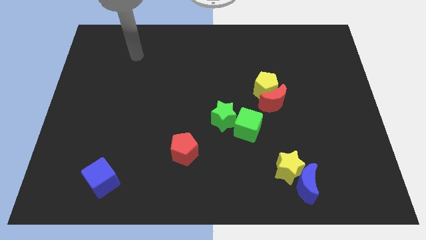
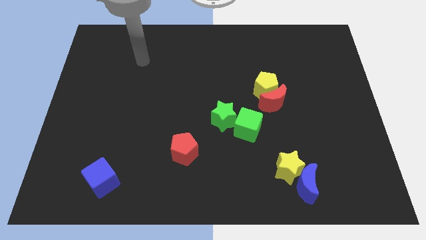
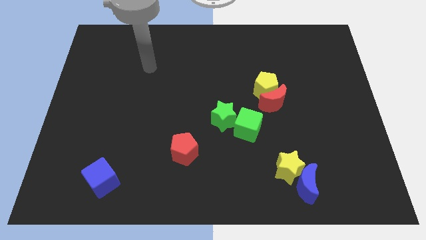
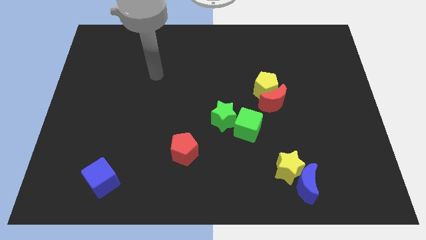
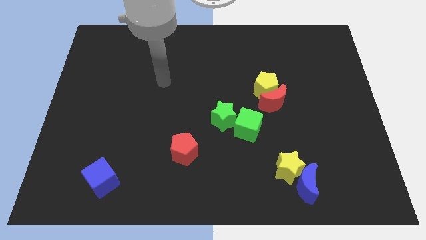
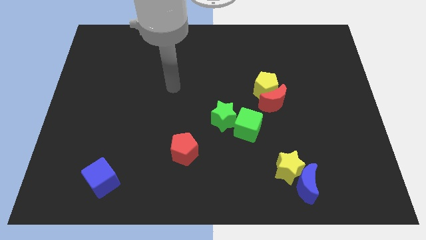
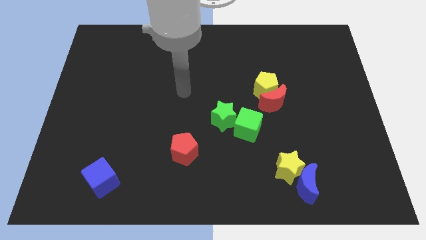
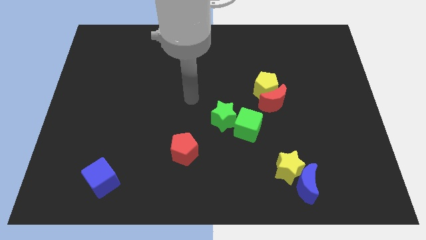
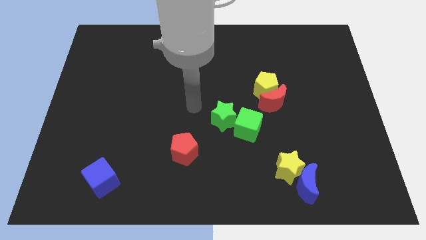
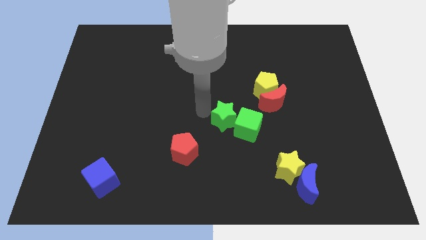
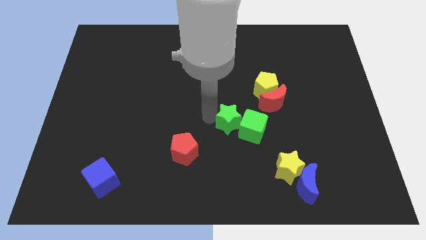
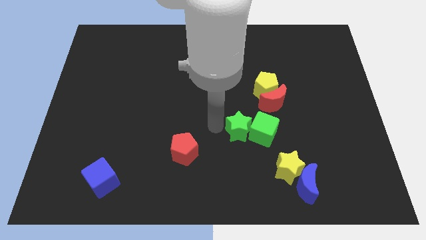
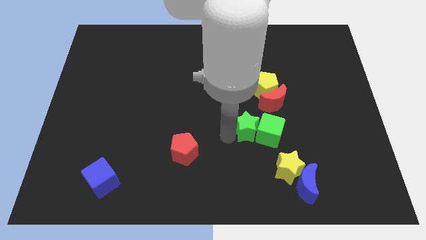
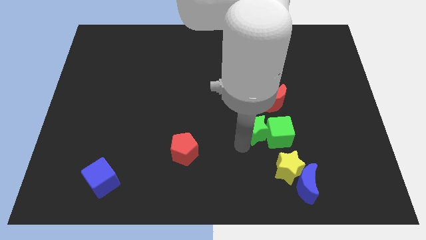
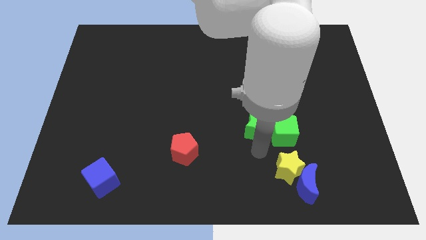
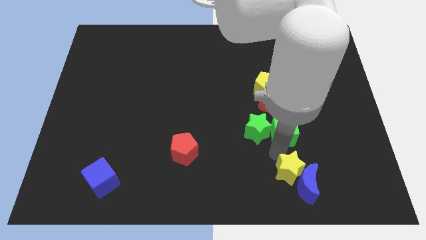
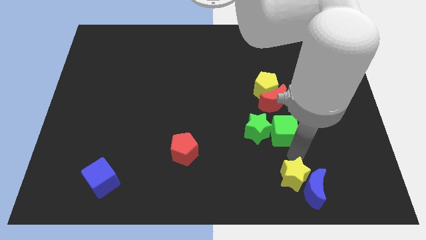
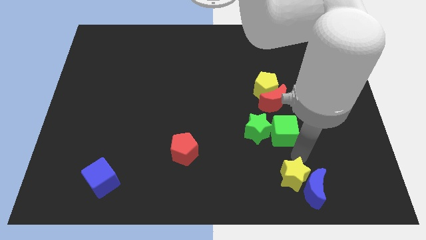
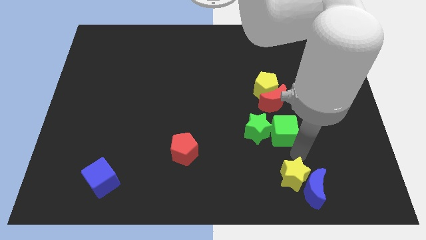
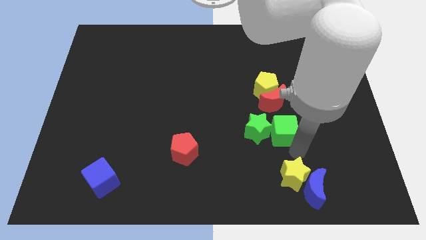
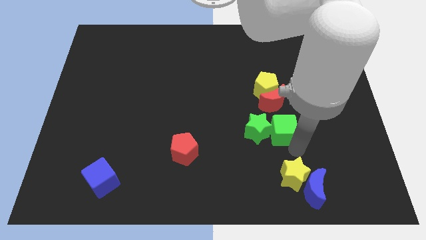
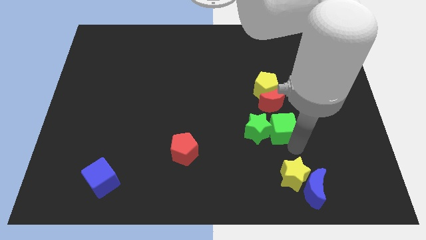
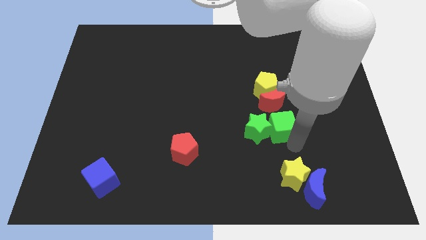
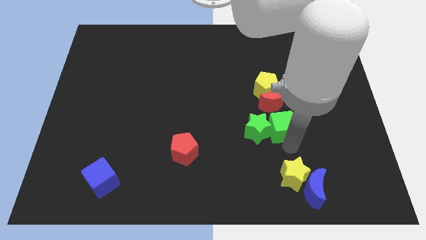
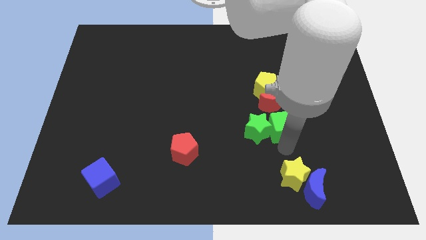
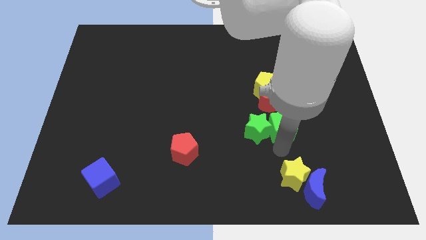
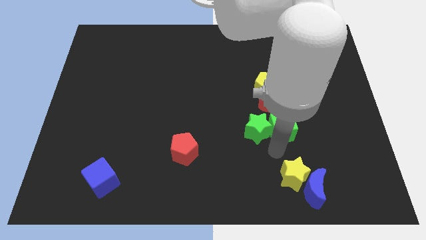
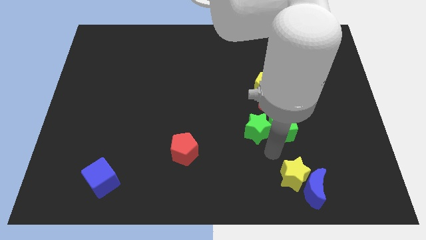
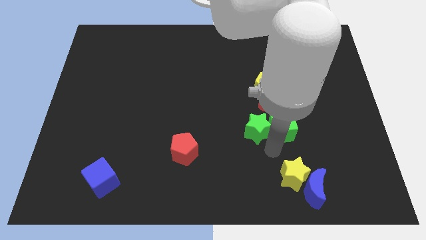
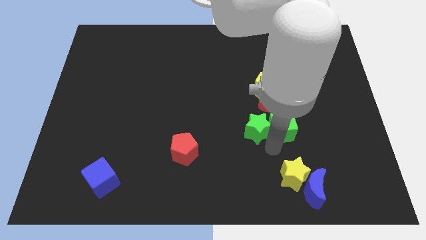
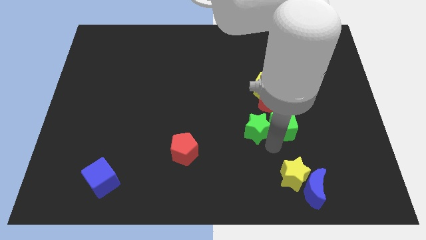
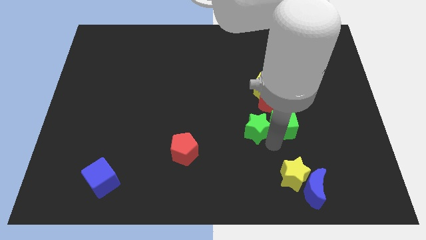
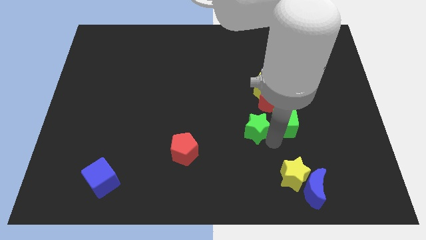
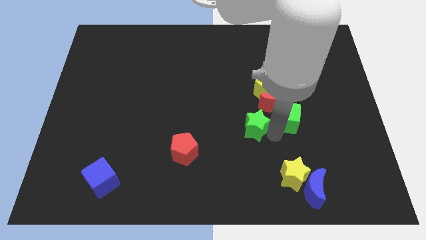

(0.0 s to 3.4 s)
move the green cube a bit upwards and right diagonally

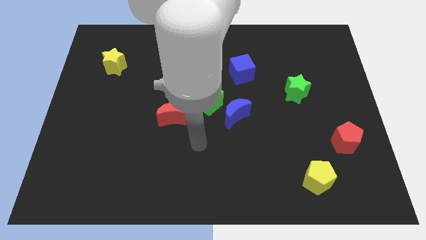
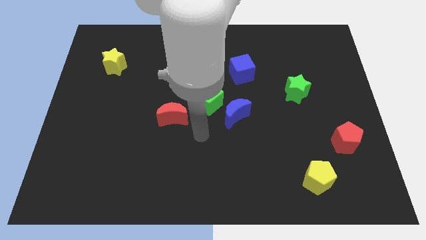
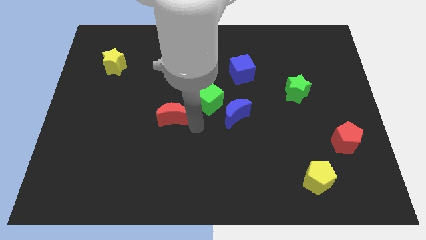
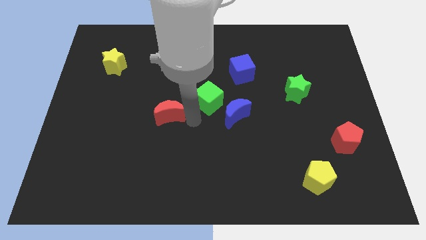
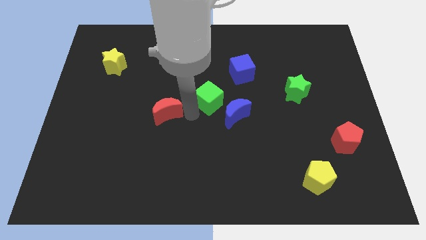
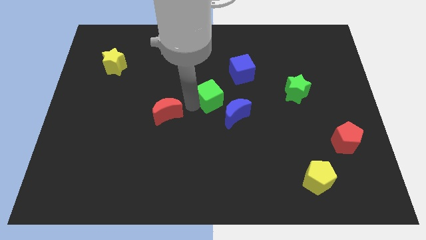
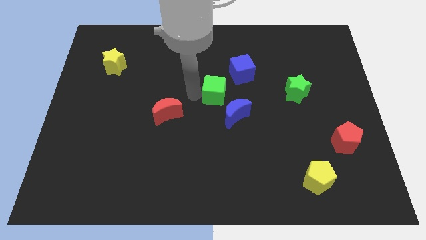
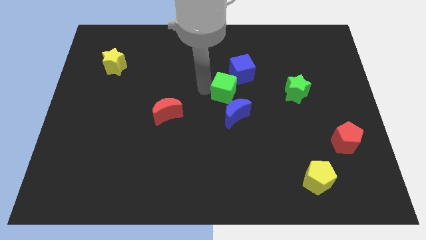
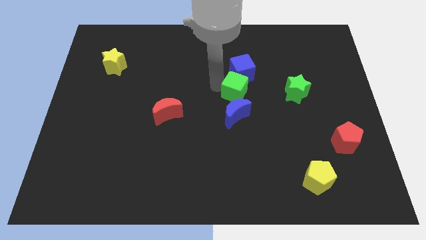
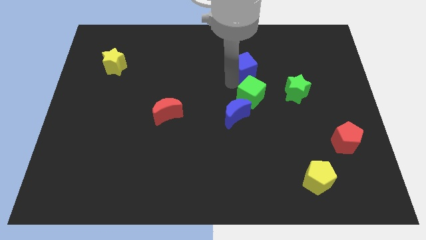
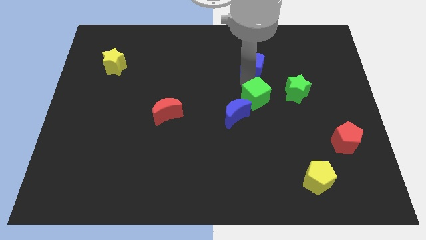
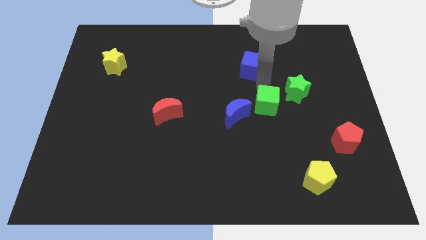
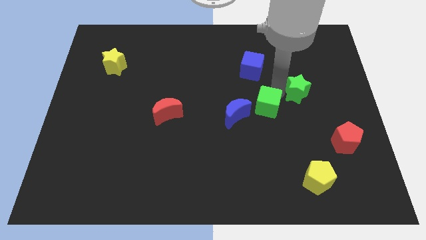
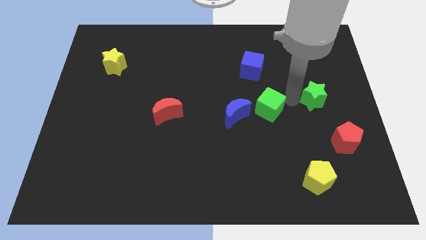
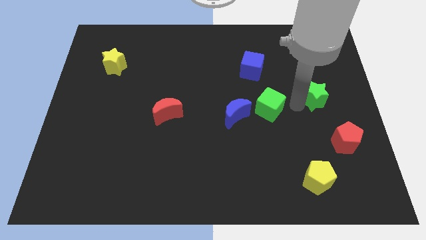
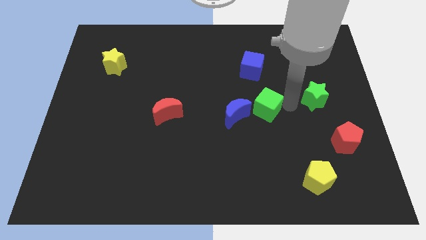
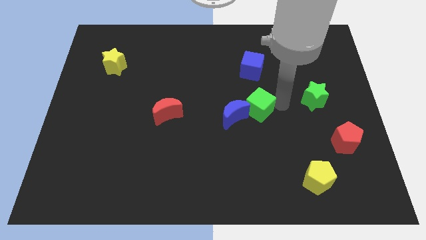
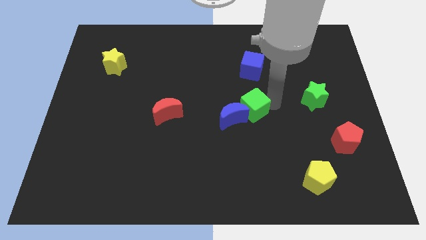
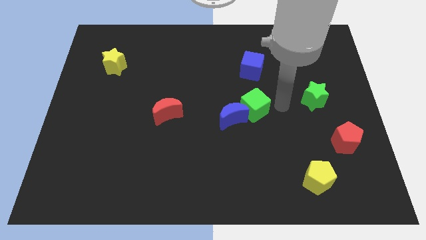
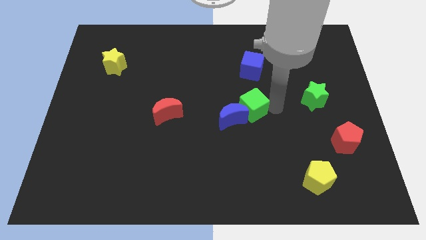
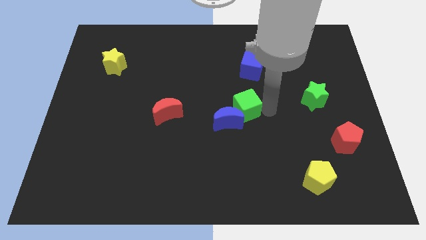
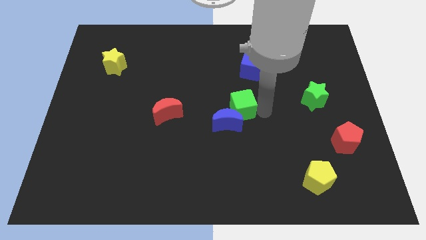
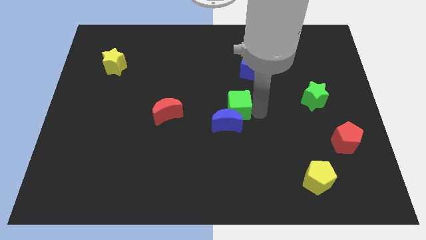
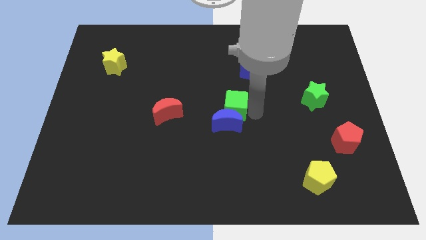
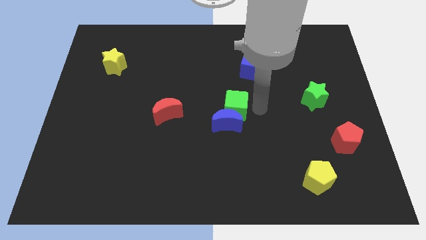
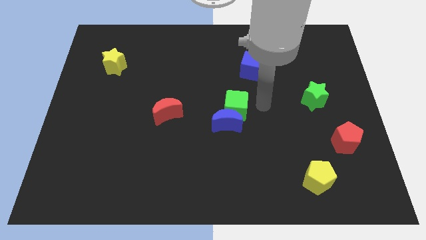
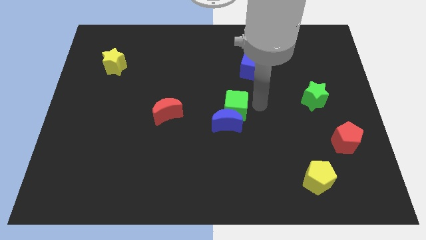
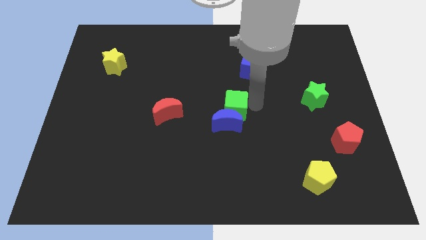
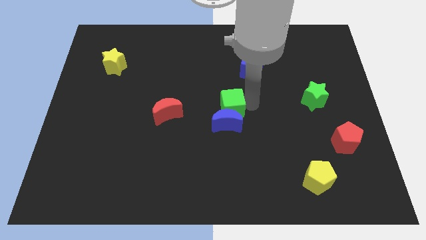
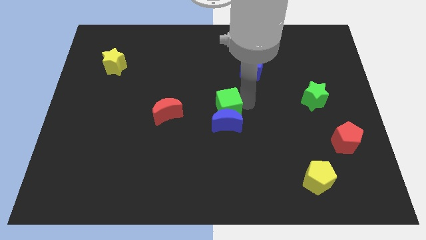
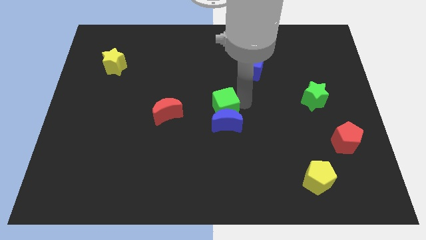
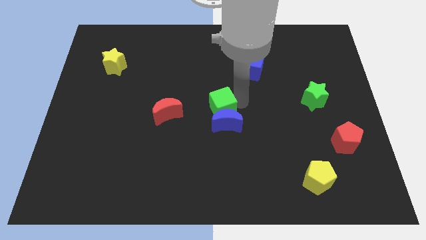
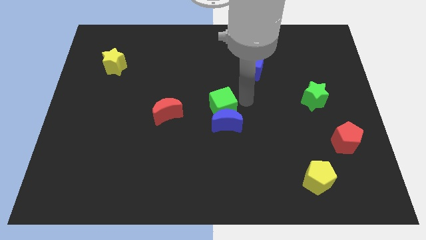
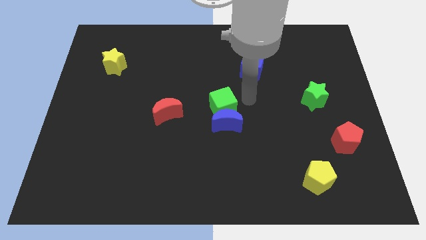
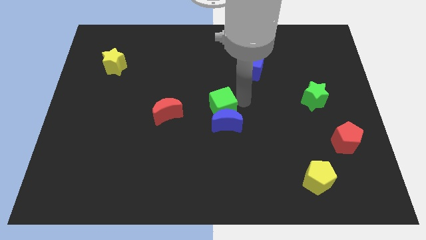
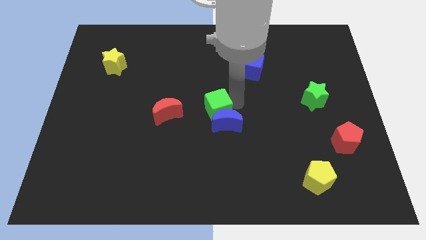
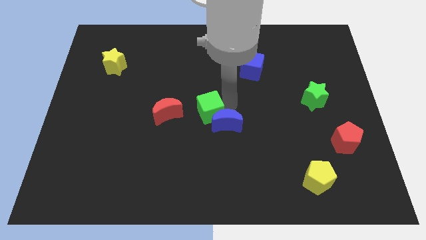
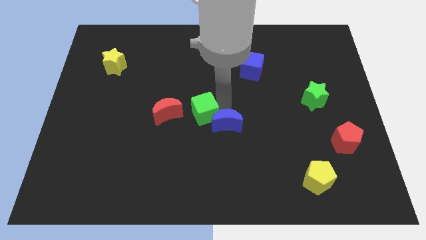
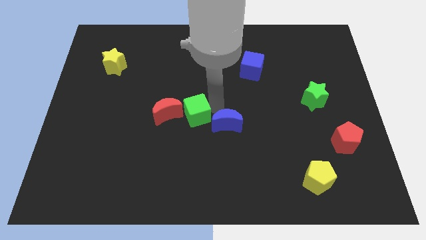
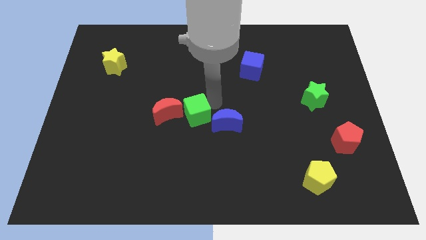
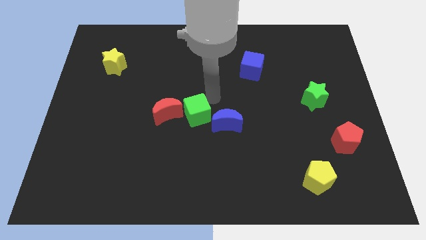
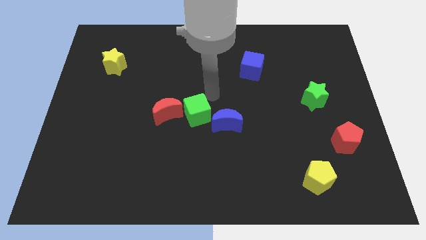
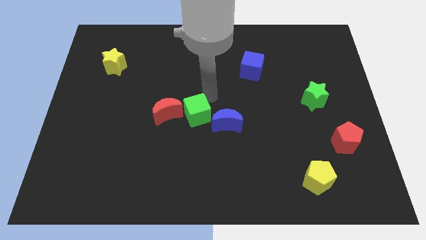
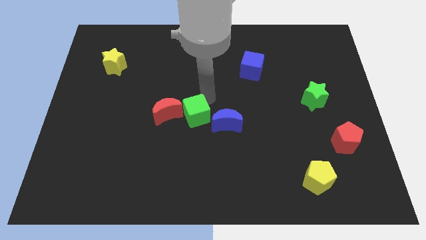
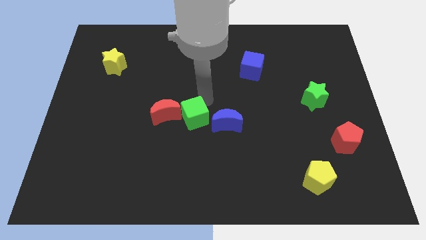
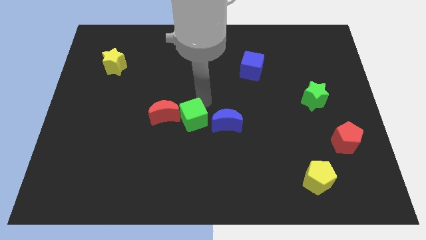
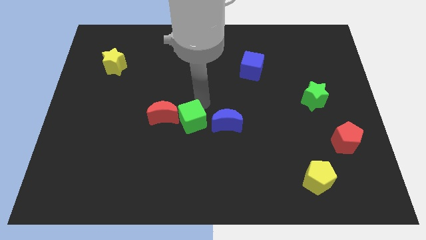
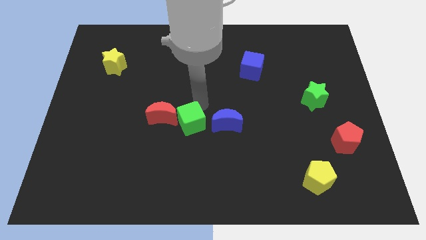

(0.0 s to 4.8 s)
push the green cube a little bit down and then to the left
